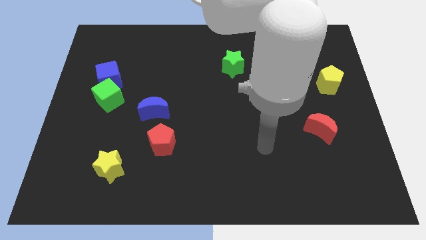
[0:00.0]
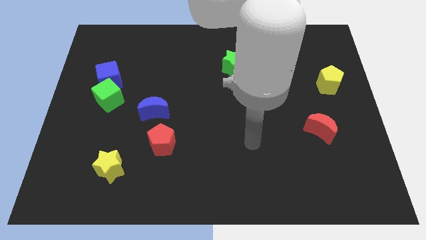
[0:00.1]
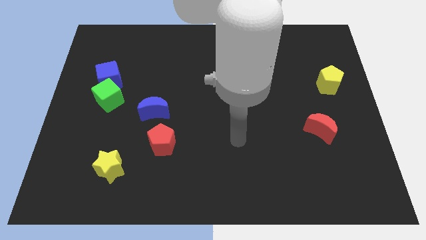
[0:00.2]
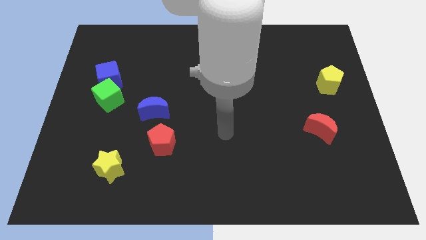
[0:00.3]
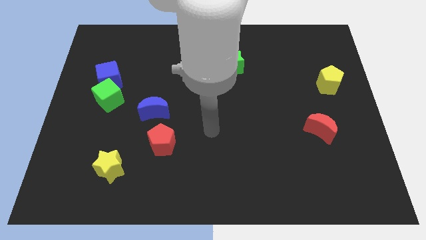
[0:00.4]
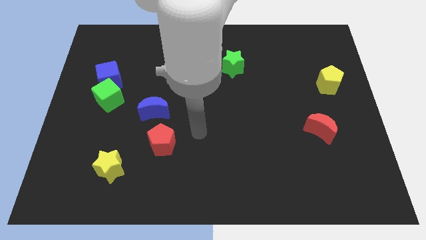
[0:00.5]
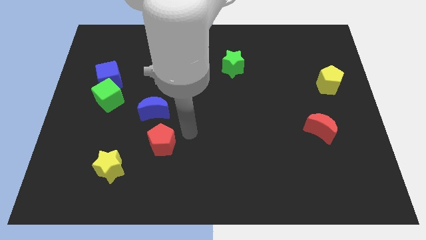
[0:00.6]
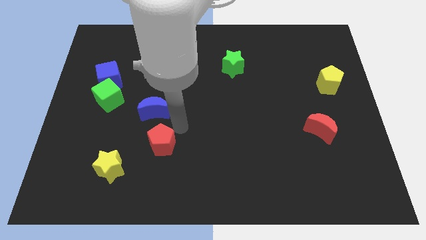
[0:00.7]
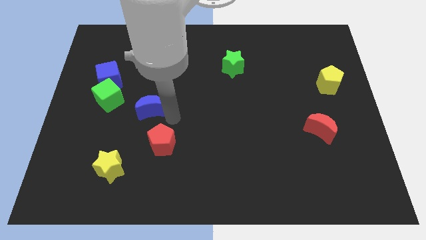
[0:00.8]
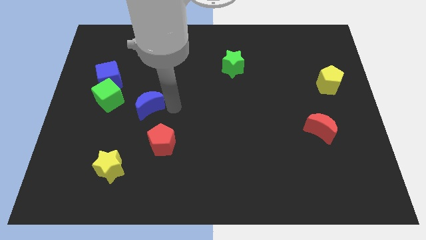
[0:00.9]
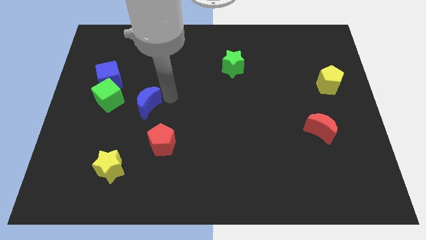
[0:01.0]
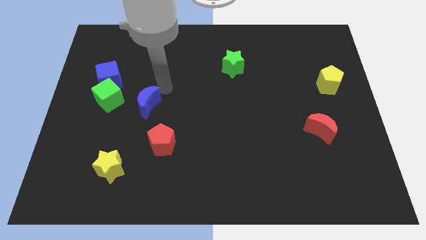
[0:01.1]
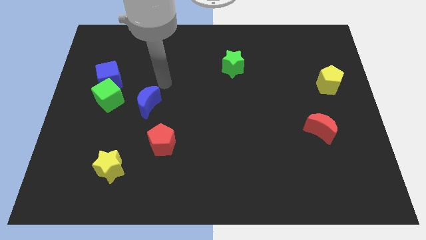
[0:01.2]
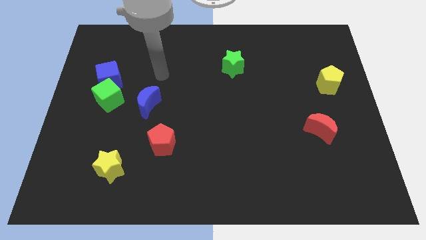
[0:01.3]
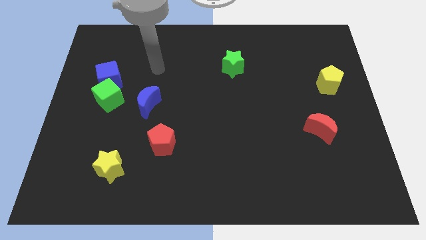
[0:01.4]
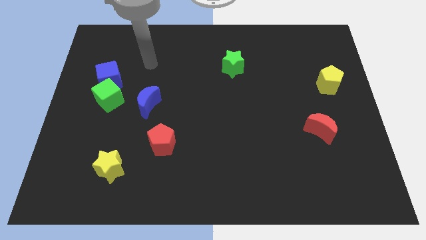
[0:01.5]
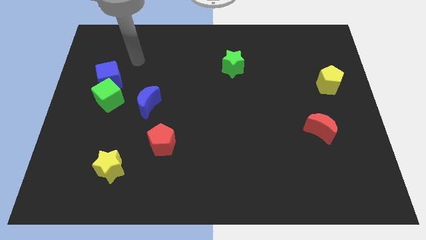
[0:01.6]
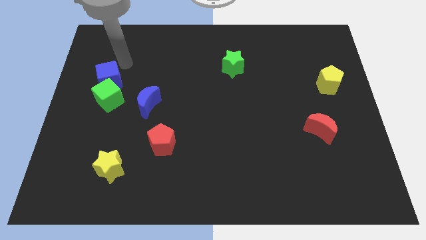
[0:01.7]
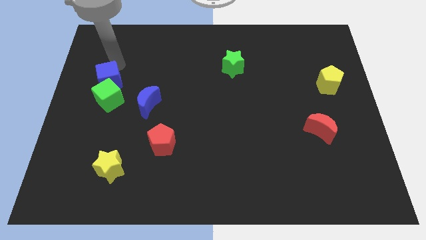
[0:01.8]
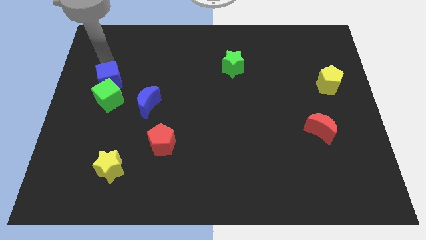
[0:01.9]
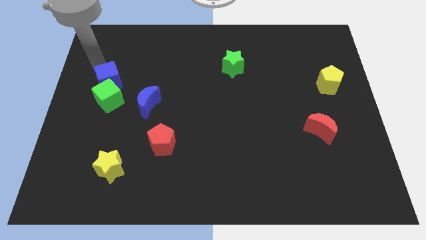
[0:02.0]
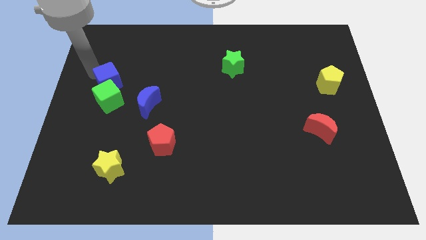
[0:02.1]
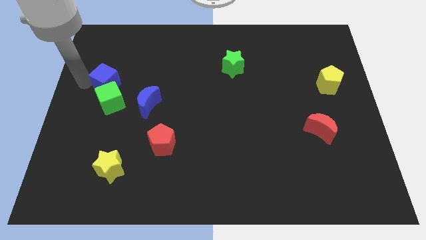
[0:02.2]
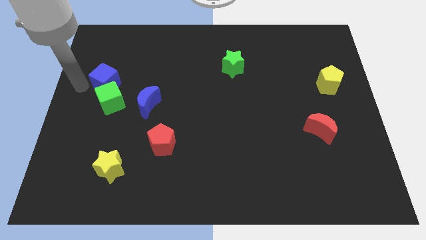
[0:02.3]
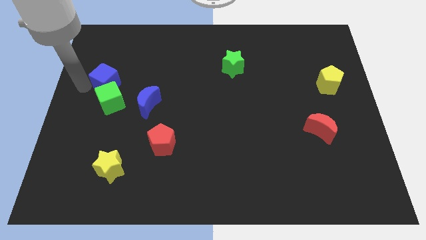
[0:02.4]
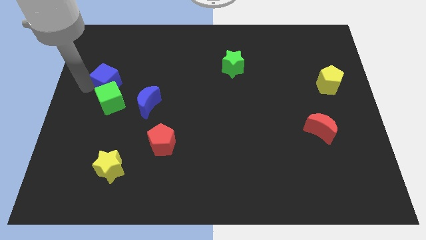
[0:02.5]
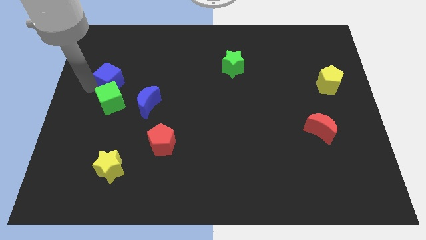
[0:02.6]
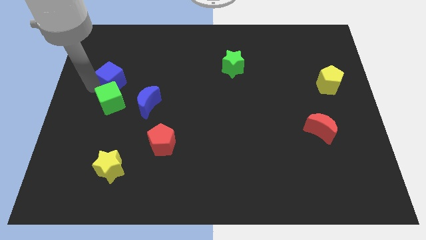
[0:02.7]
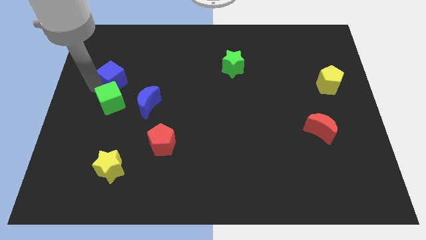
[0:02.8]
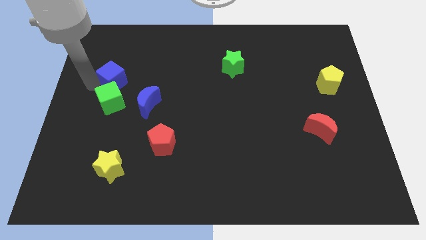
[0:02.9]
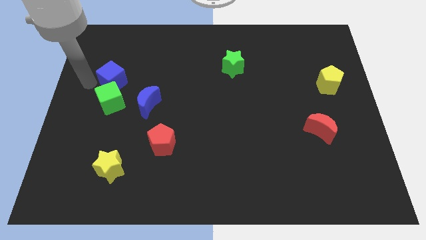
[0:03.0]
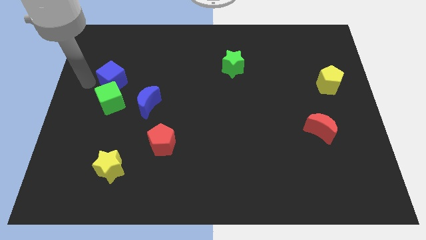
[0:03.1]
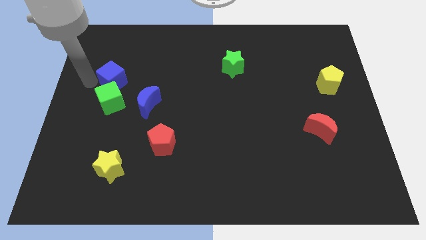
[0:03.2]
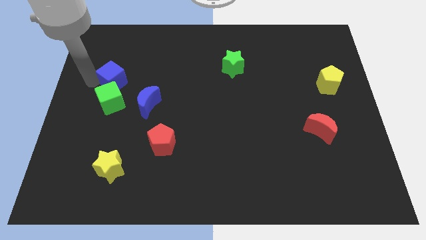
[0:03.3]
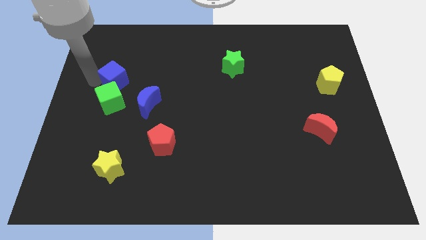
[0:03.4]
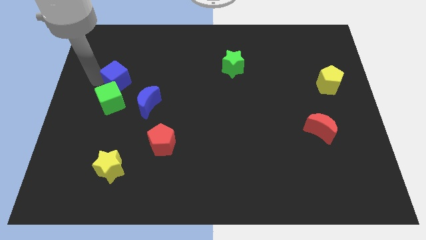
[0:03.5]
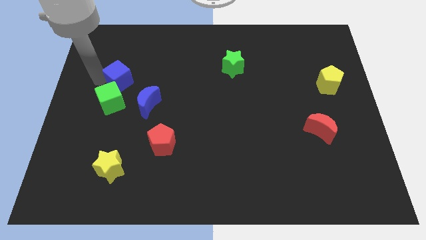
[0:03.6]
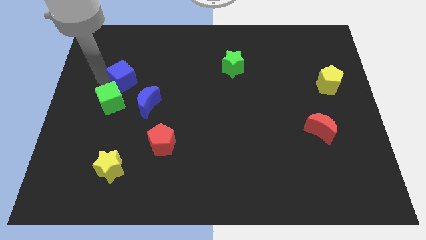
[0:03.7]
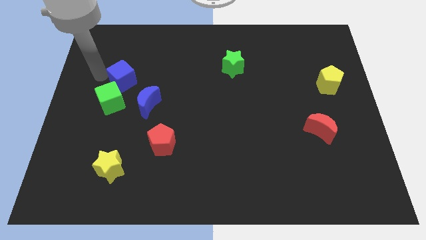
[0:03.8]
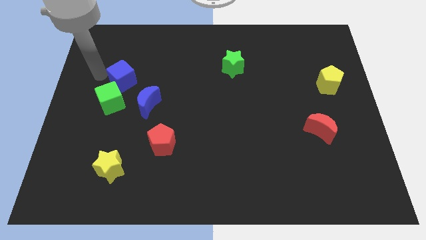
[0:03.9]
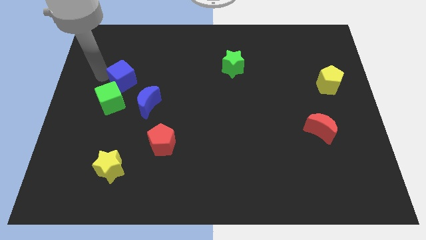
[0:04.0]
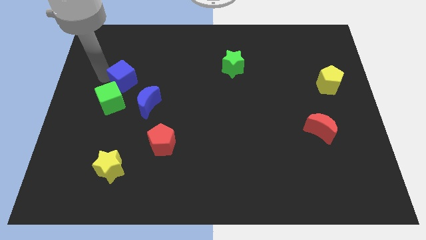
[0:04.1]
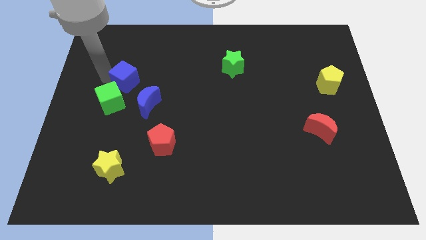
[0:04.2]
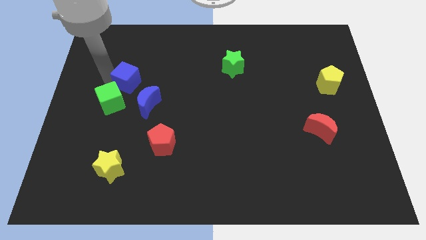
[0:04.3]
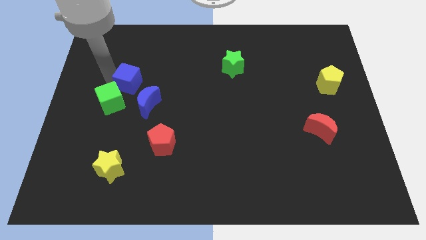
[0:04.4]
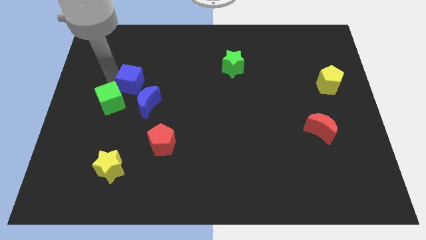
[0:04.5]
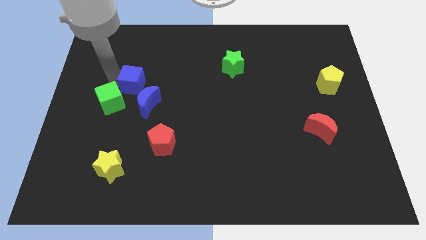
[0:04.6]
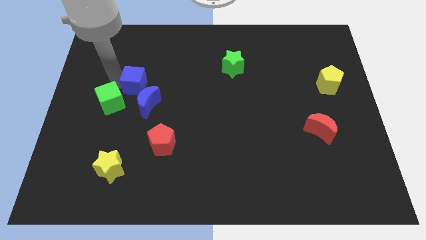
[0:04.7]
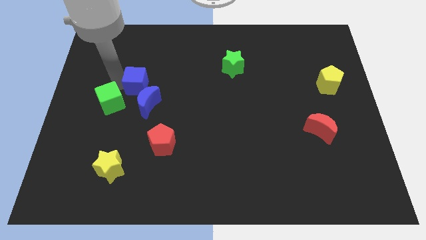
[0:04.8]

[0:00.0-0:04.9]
push the blue cube to the right somewhat

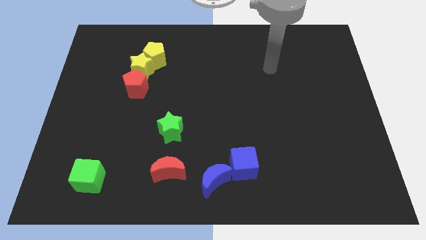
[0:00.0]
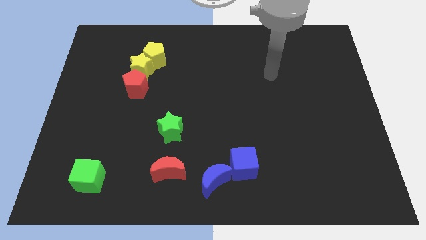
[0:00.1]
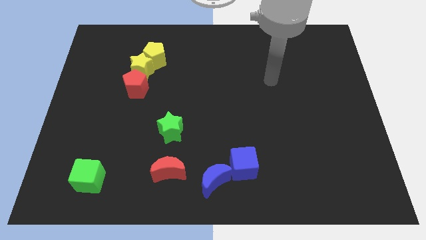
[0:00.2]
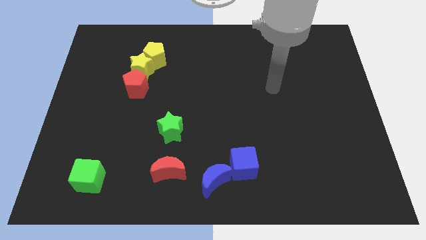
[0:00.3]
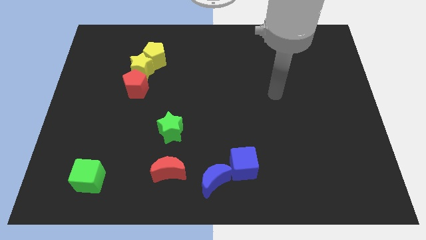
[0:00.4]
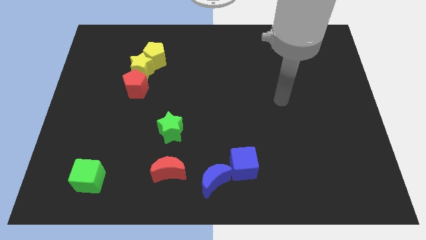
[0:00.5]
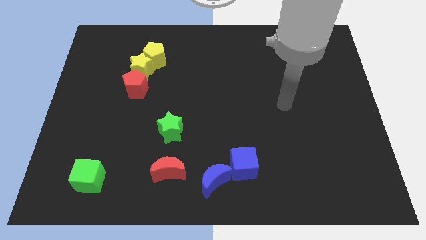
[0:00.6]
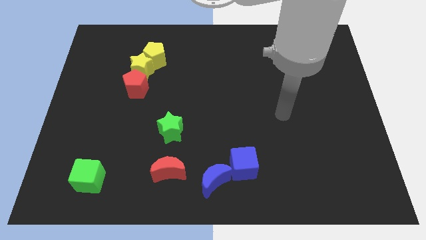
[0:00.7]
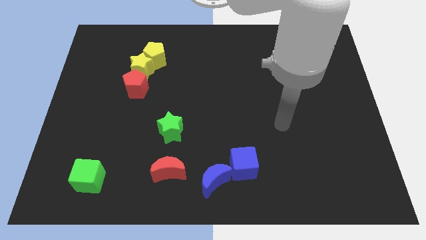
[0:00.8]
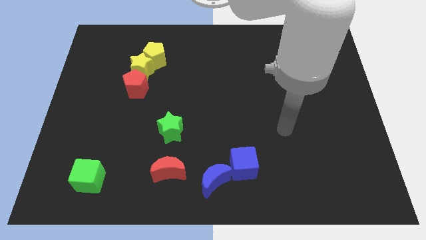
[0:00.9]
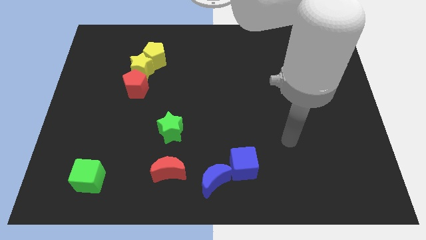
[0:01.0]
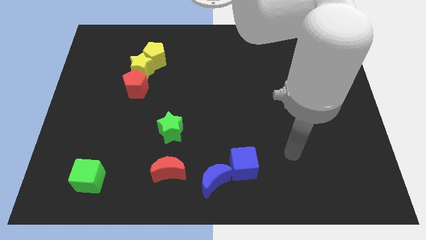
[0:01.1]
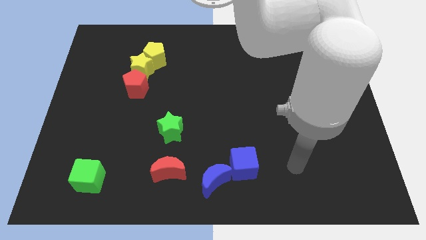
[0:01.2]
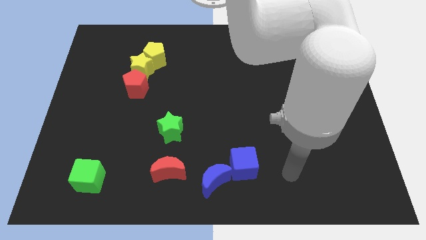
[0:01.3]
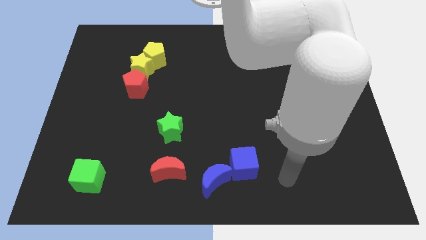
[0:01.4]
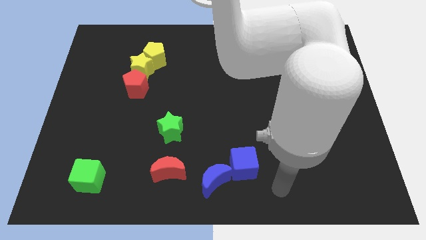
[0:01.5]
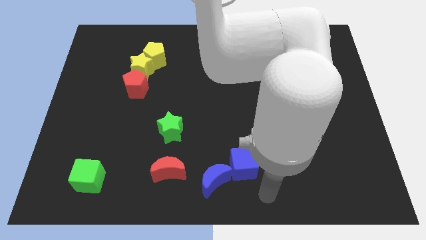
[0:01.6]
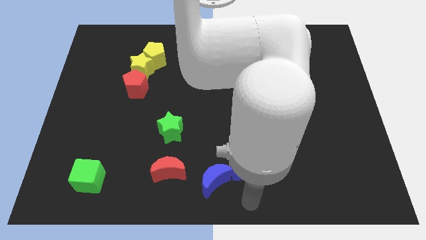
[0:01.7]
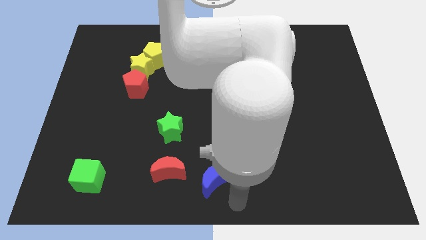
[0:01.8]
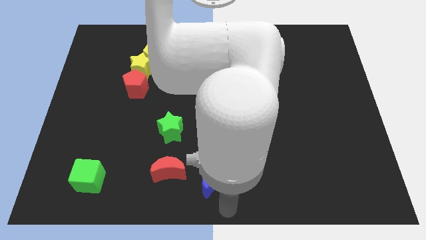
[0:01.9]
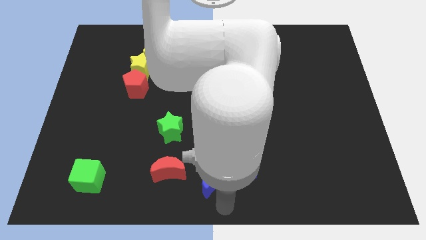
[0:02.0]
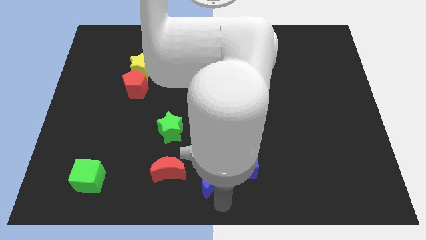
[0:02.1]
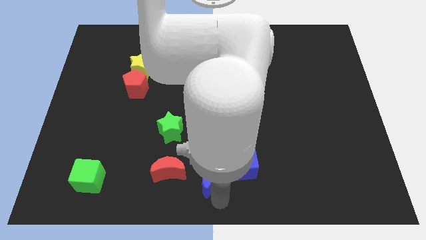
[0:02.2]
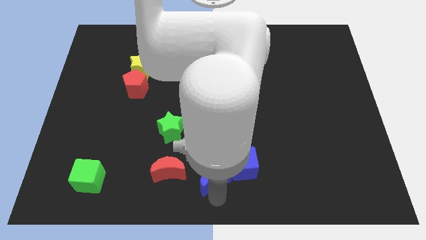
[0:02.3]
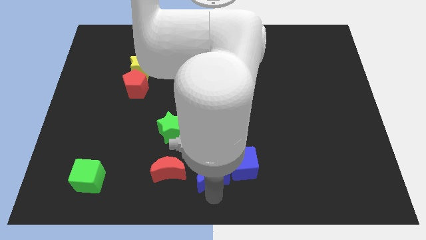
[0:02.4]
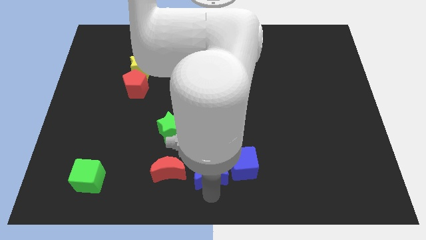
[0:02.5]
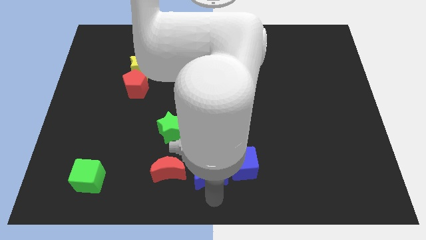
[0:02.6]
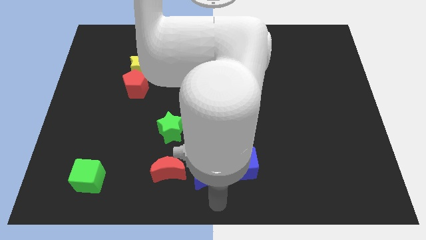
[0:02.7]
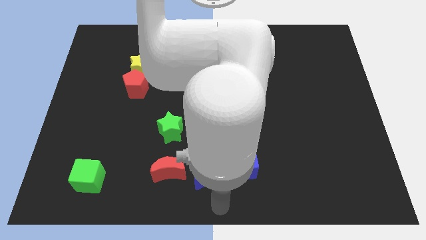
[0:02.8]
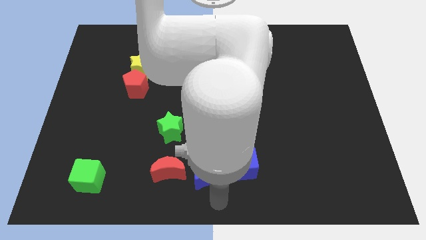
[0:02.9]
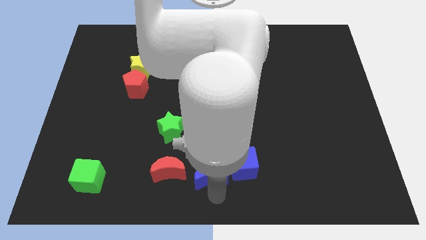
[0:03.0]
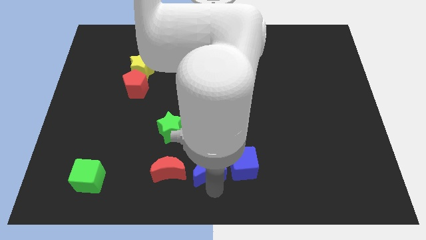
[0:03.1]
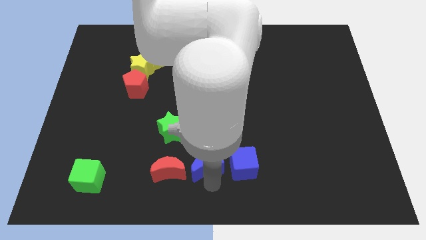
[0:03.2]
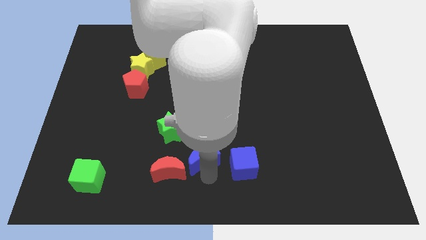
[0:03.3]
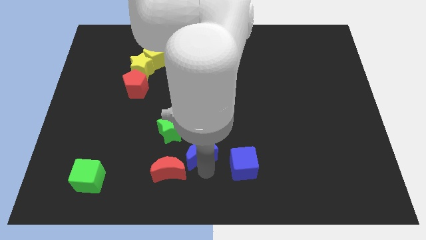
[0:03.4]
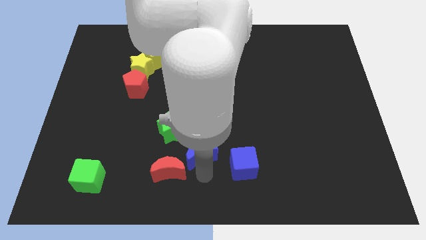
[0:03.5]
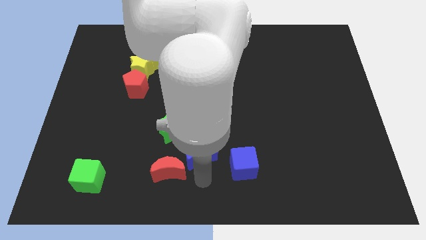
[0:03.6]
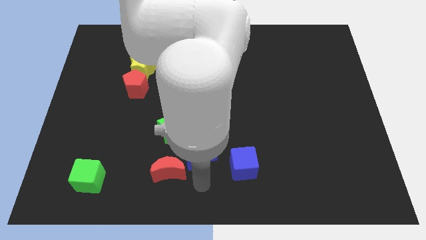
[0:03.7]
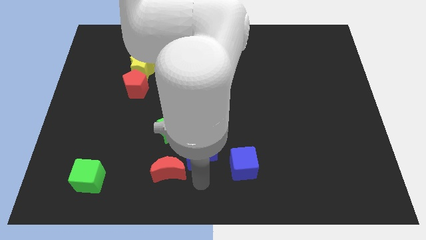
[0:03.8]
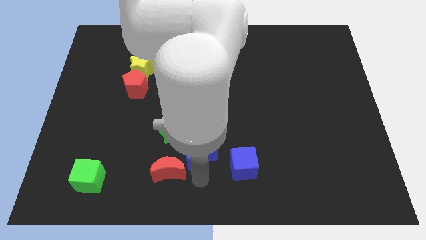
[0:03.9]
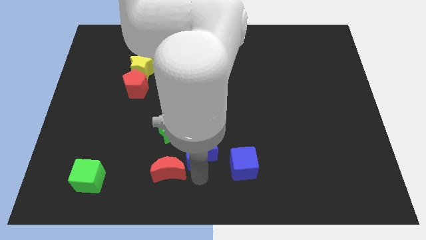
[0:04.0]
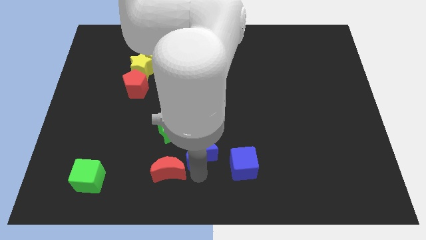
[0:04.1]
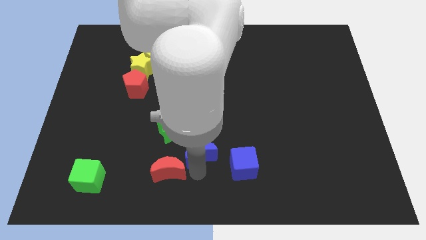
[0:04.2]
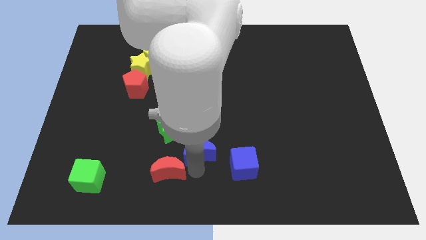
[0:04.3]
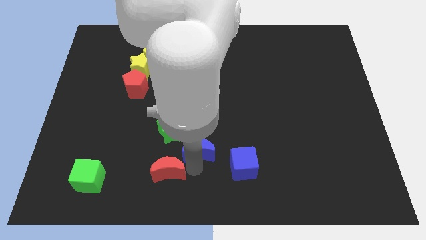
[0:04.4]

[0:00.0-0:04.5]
slide the blue moon upwards and to the left diagonally slightly
